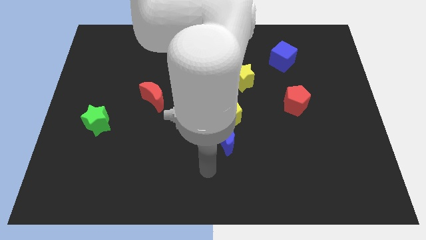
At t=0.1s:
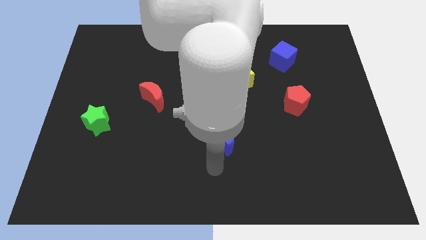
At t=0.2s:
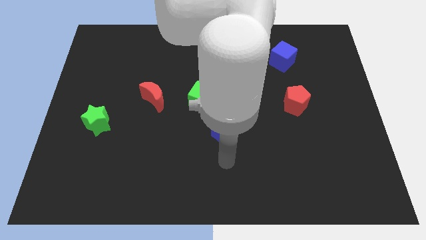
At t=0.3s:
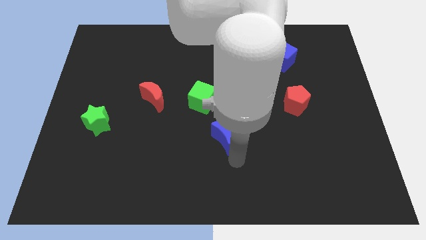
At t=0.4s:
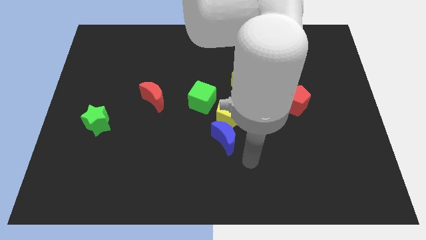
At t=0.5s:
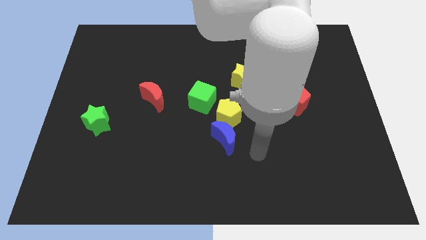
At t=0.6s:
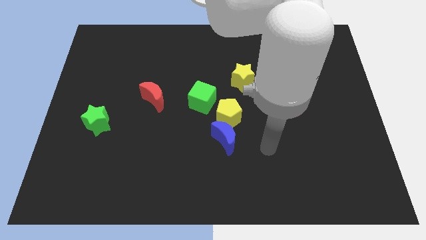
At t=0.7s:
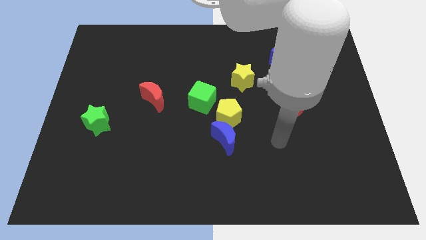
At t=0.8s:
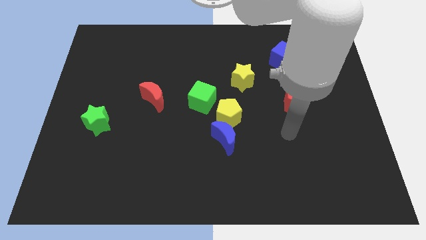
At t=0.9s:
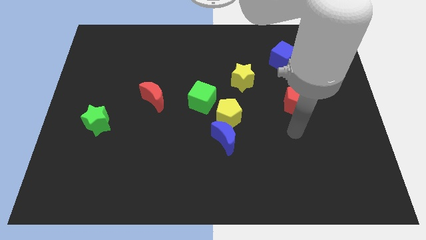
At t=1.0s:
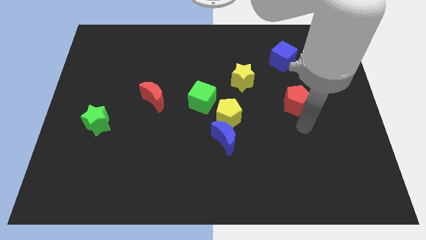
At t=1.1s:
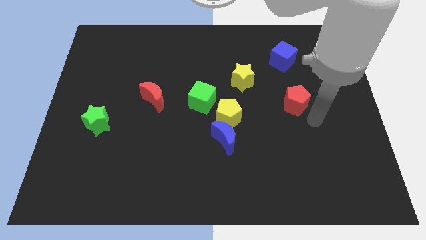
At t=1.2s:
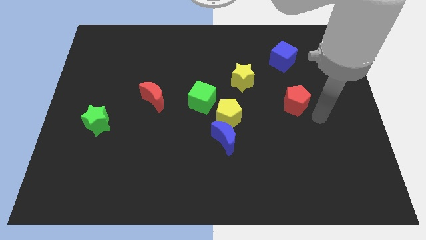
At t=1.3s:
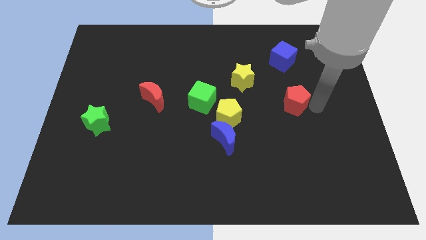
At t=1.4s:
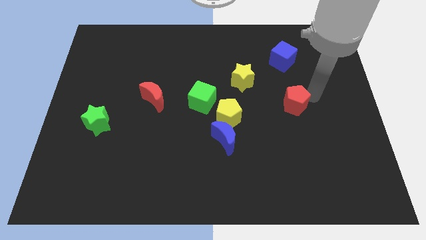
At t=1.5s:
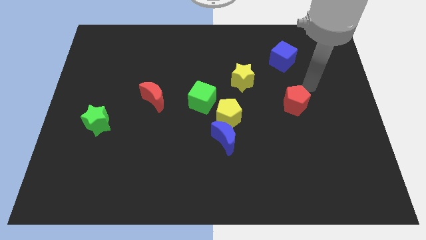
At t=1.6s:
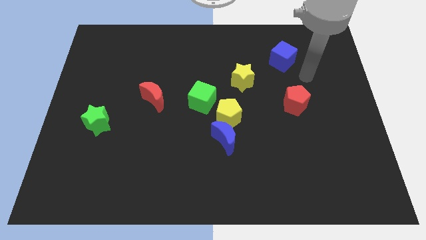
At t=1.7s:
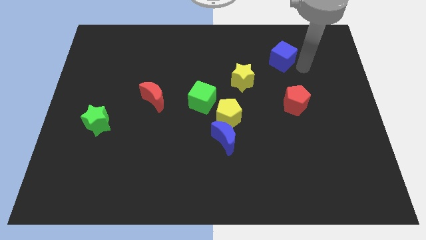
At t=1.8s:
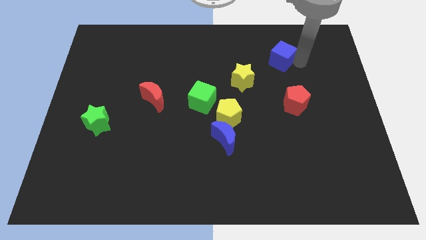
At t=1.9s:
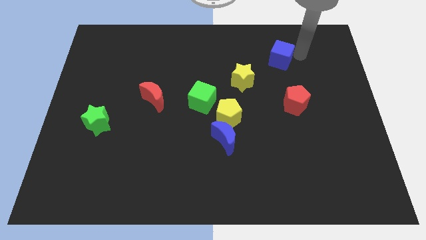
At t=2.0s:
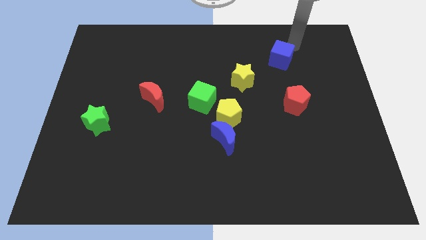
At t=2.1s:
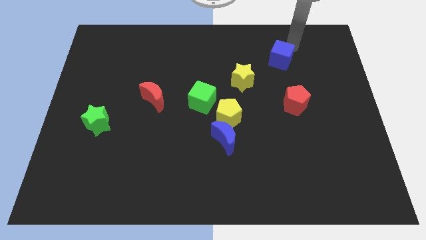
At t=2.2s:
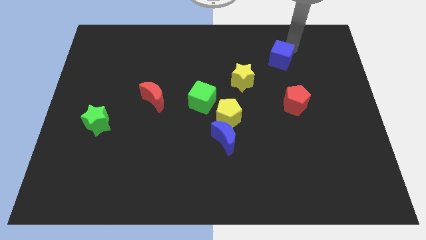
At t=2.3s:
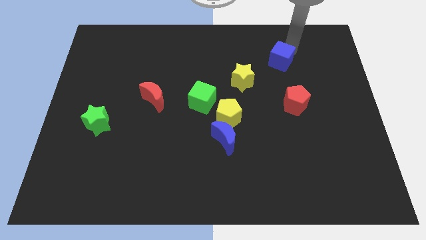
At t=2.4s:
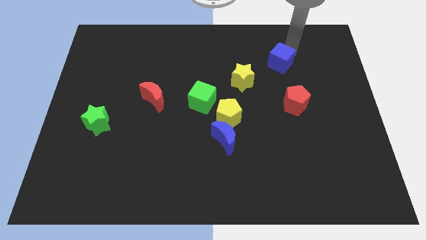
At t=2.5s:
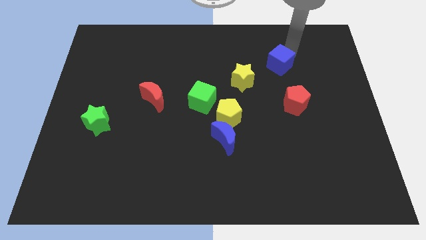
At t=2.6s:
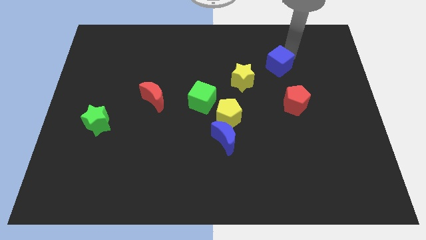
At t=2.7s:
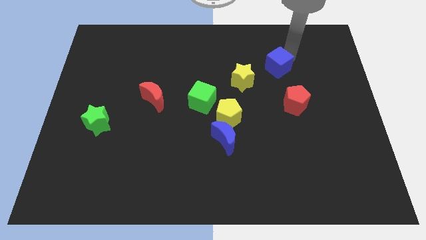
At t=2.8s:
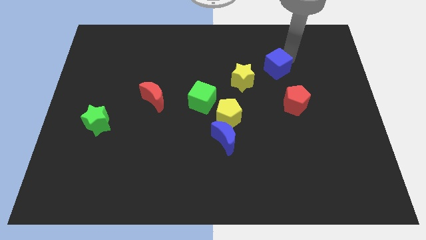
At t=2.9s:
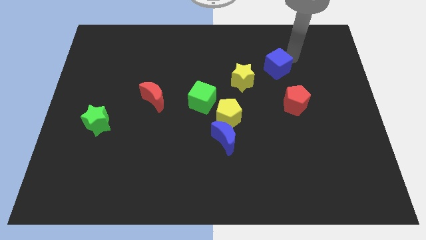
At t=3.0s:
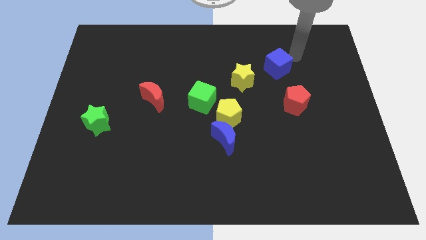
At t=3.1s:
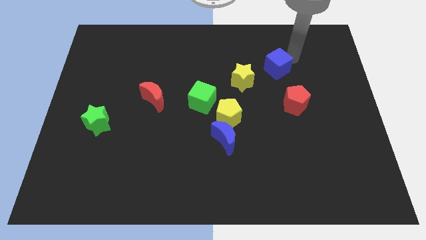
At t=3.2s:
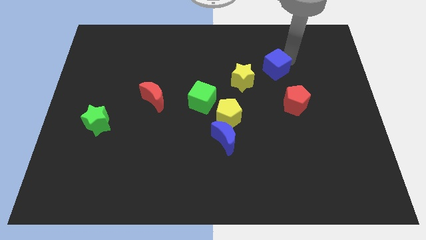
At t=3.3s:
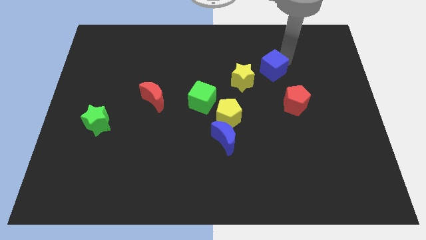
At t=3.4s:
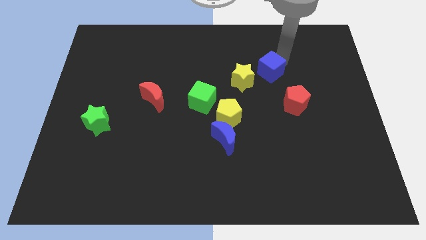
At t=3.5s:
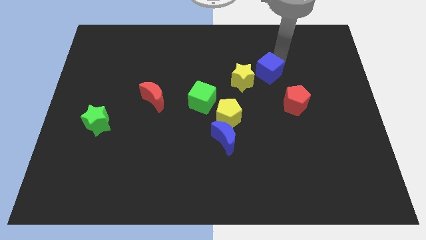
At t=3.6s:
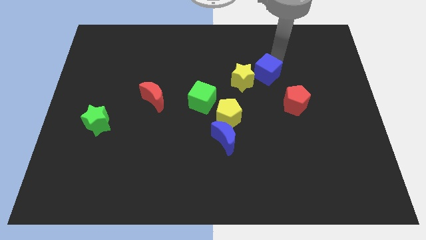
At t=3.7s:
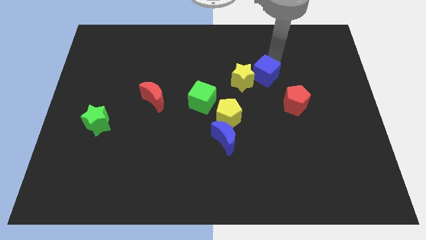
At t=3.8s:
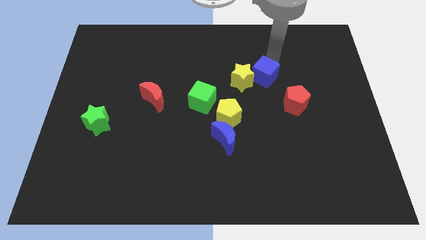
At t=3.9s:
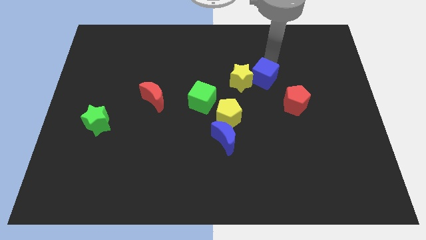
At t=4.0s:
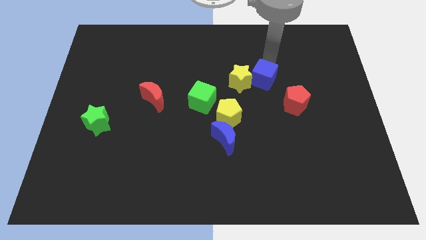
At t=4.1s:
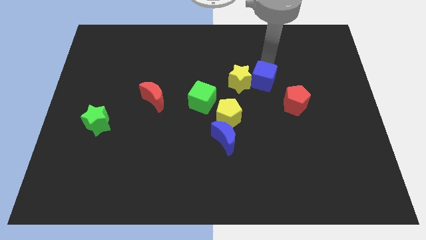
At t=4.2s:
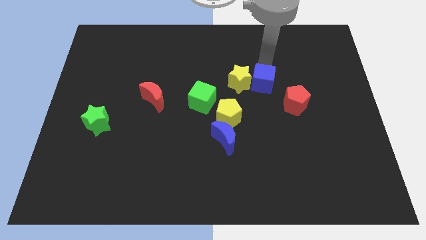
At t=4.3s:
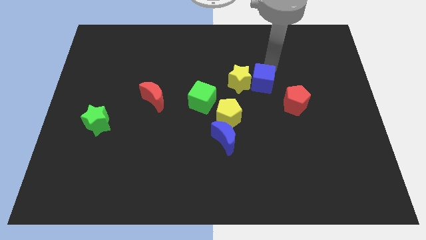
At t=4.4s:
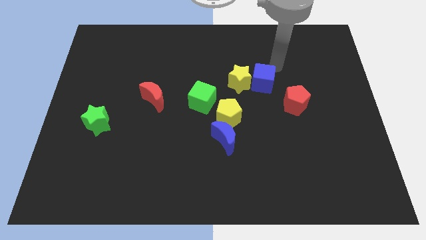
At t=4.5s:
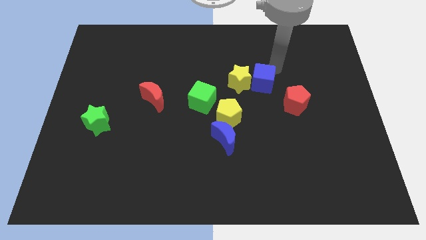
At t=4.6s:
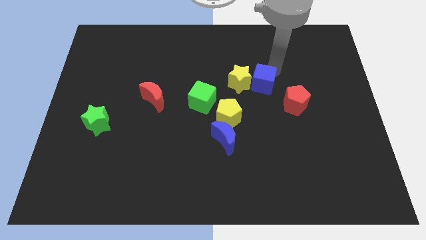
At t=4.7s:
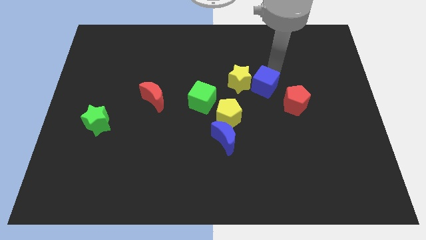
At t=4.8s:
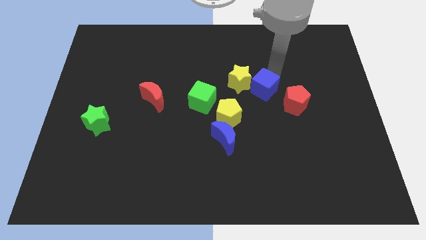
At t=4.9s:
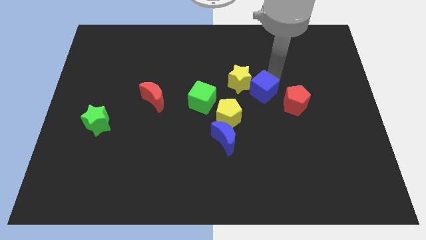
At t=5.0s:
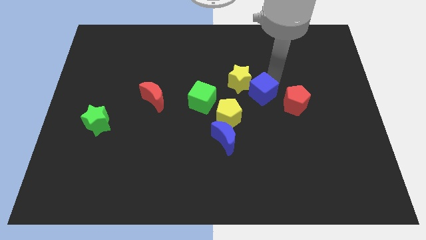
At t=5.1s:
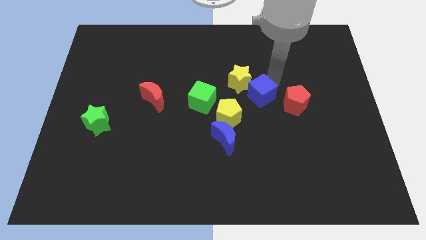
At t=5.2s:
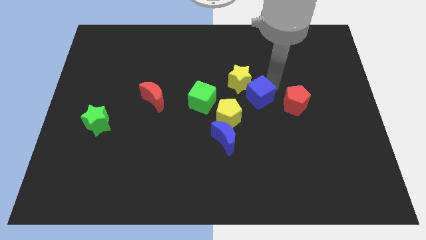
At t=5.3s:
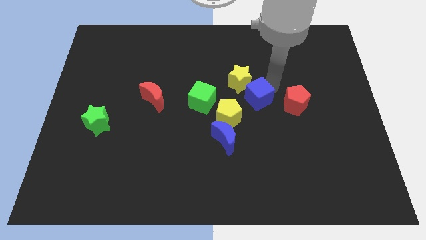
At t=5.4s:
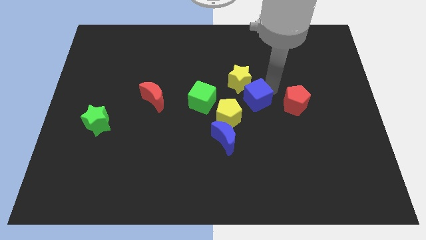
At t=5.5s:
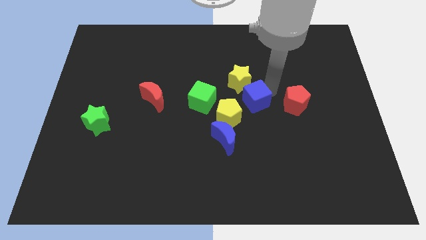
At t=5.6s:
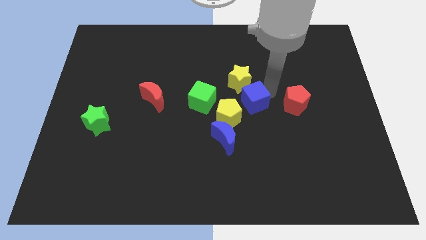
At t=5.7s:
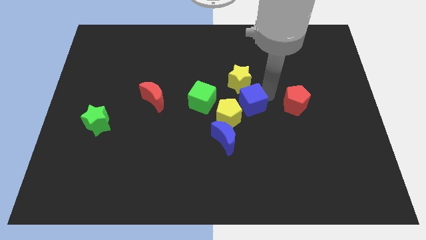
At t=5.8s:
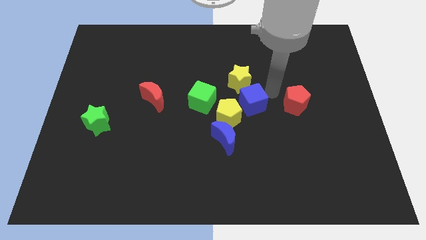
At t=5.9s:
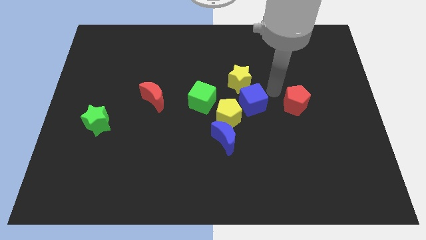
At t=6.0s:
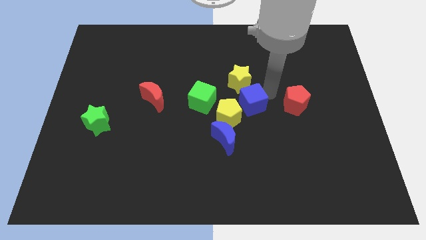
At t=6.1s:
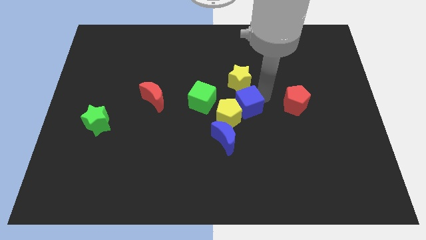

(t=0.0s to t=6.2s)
put the blue cube to the yellow pentagon

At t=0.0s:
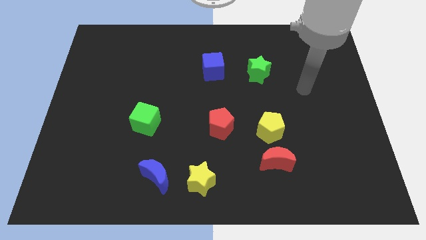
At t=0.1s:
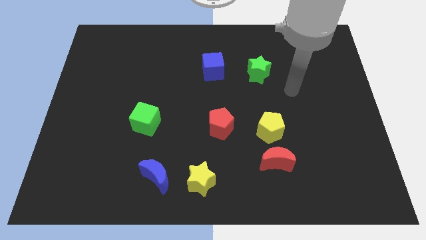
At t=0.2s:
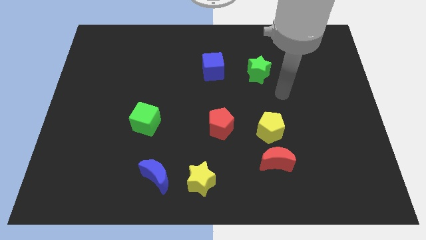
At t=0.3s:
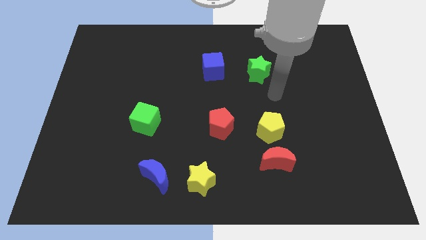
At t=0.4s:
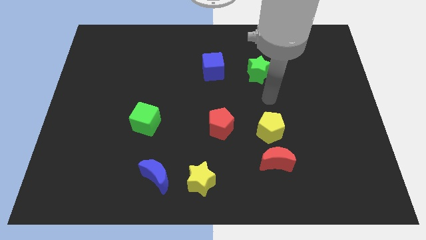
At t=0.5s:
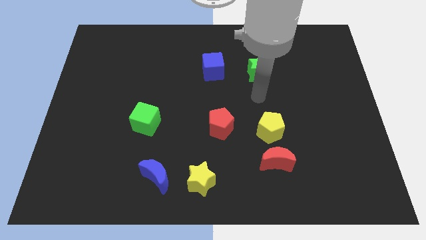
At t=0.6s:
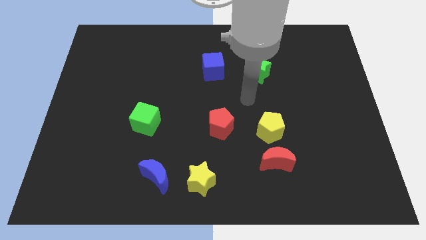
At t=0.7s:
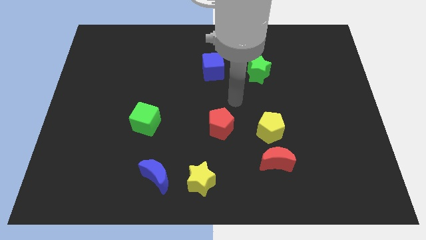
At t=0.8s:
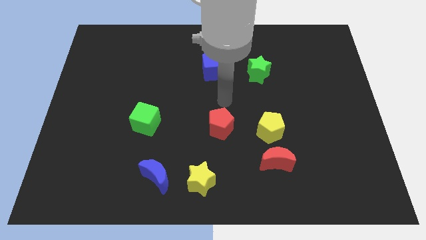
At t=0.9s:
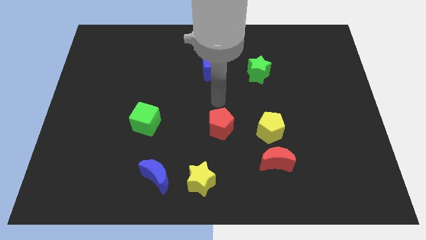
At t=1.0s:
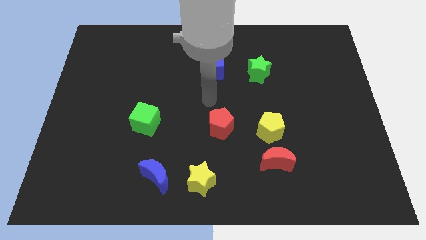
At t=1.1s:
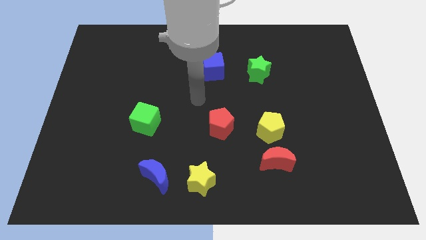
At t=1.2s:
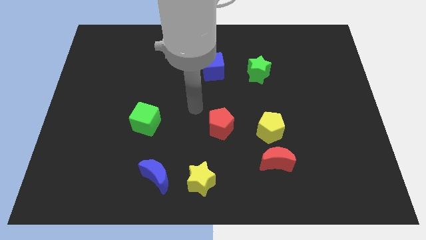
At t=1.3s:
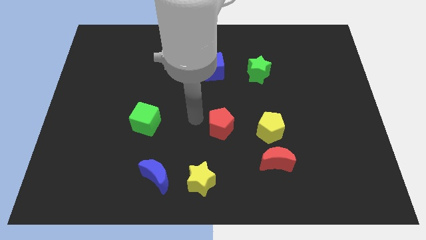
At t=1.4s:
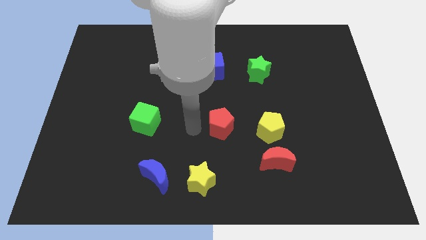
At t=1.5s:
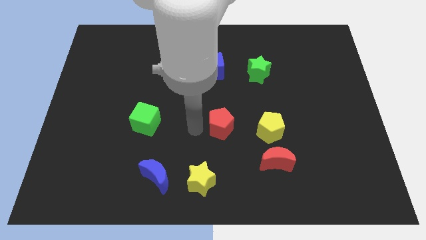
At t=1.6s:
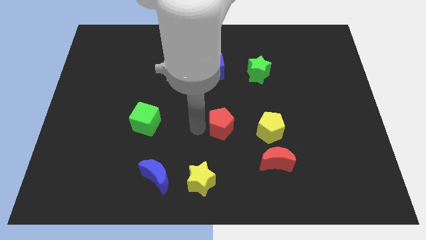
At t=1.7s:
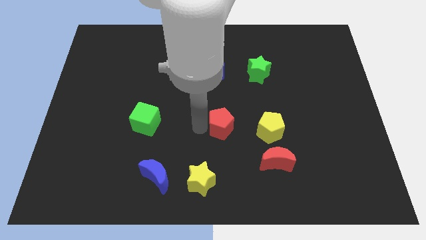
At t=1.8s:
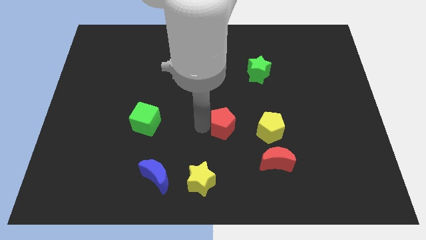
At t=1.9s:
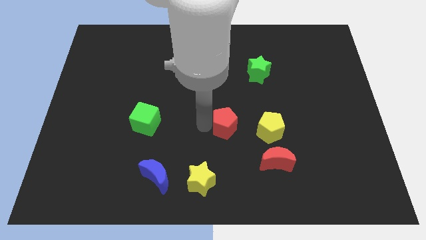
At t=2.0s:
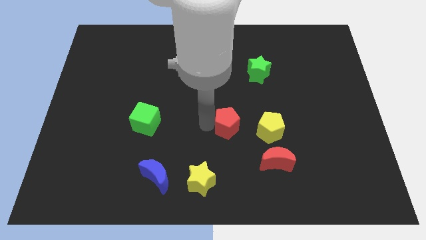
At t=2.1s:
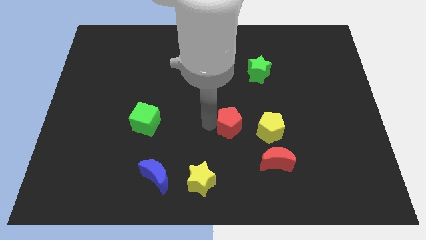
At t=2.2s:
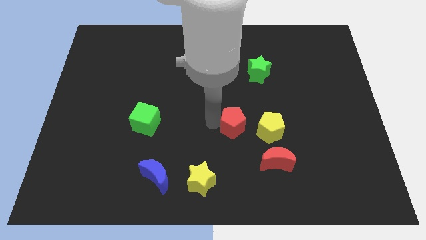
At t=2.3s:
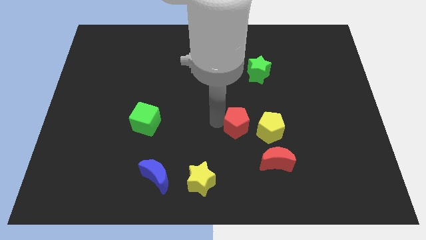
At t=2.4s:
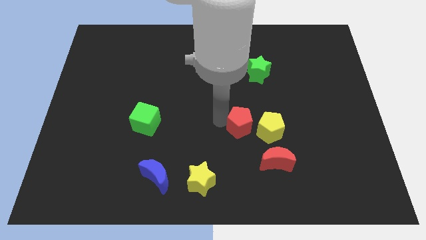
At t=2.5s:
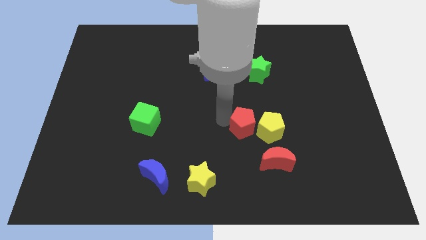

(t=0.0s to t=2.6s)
slide the red pentagon close to the yellow pentagon
